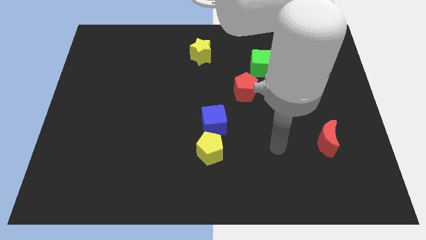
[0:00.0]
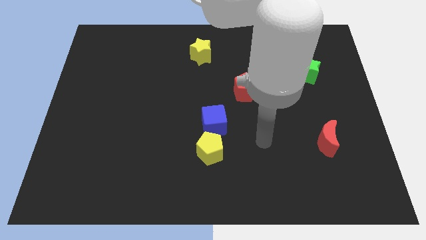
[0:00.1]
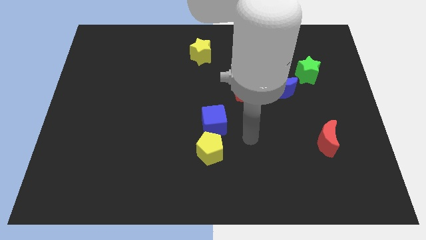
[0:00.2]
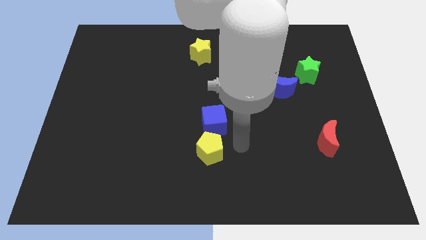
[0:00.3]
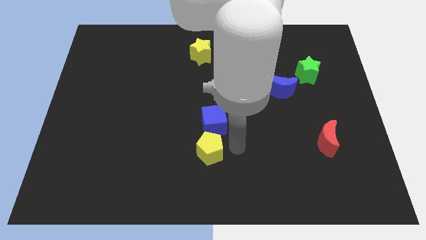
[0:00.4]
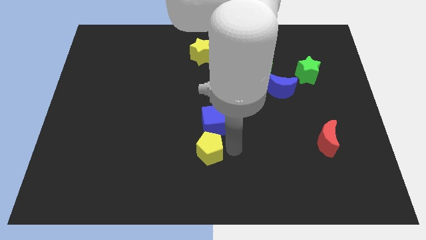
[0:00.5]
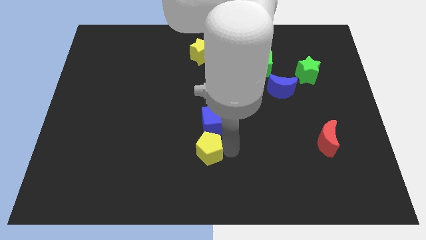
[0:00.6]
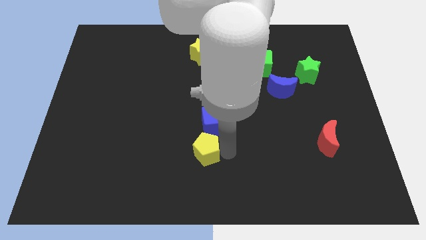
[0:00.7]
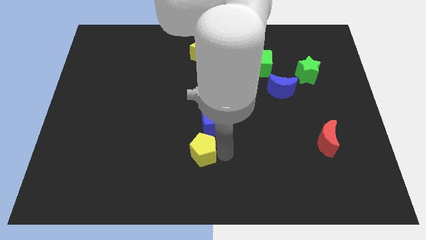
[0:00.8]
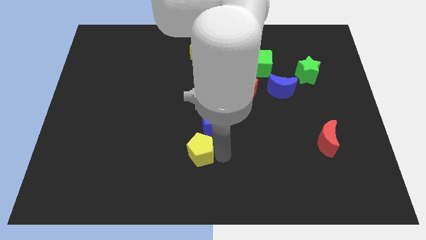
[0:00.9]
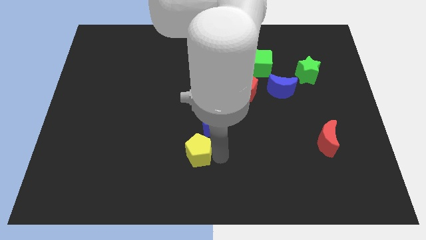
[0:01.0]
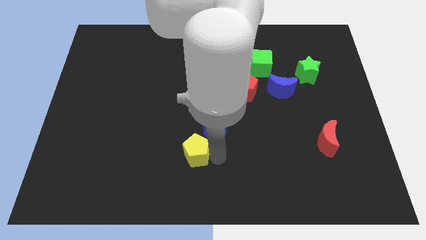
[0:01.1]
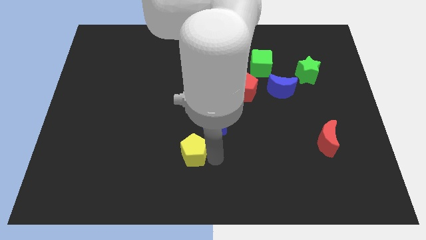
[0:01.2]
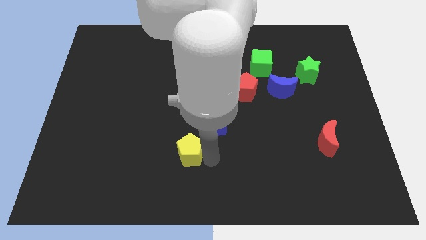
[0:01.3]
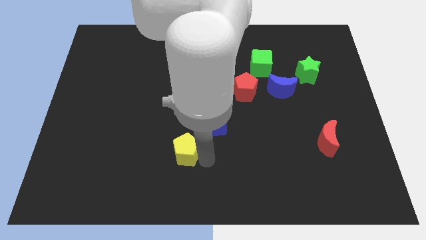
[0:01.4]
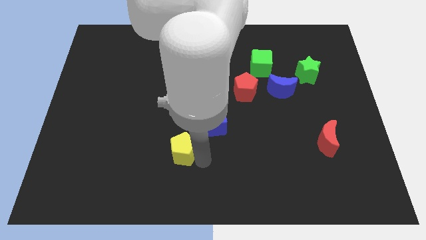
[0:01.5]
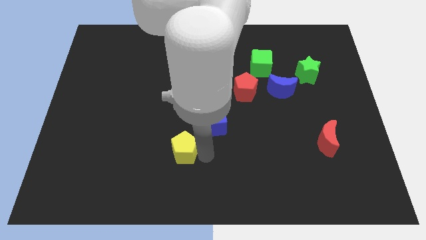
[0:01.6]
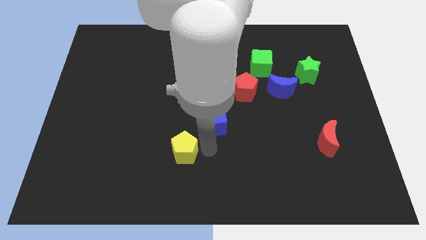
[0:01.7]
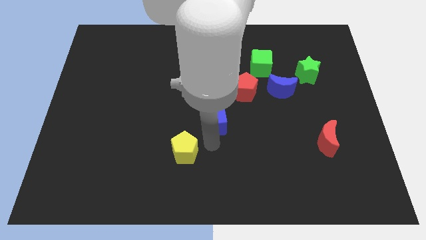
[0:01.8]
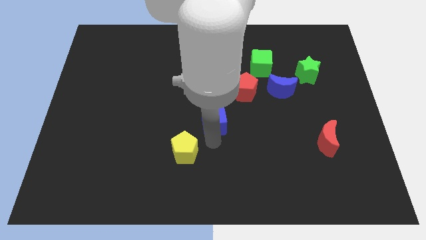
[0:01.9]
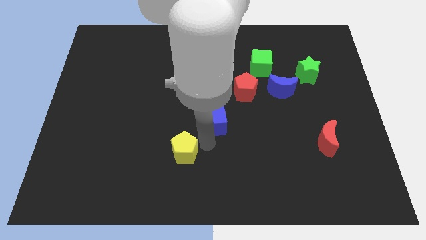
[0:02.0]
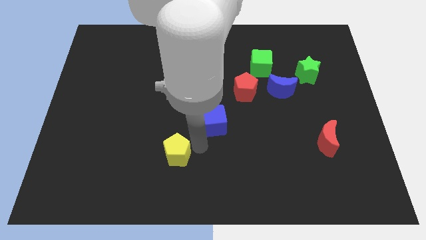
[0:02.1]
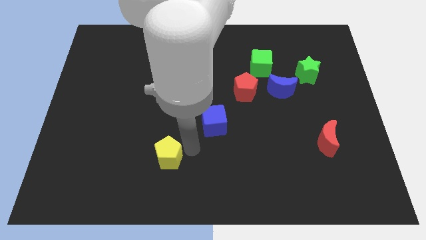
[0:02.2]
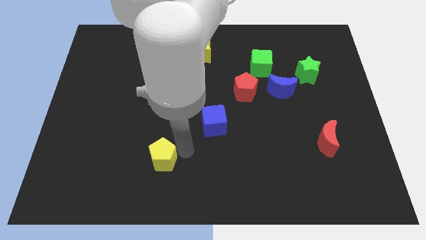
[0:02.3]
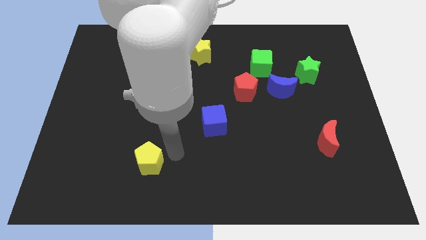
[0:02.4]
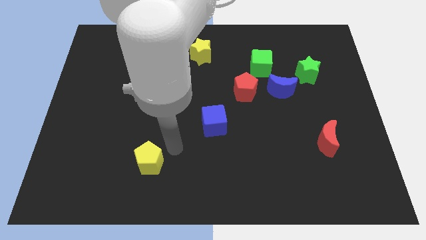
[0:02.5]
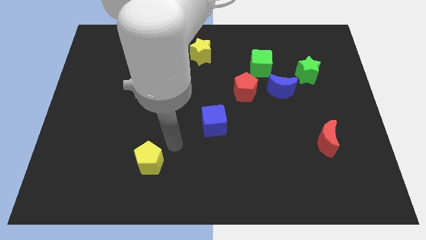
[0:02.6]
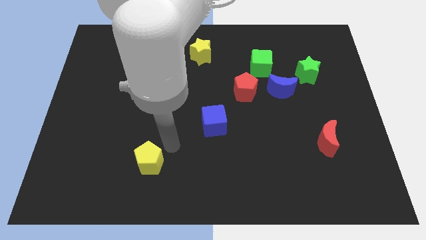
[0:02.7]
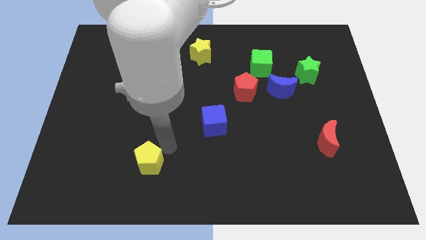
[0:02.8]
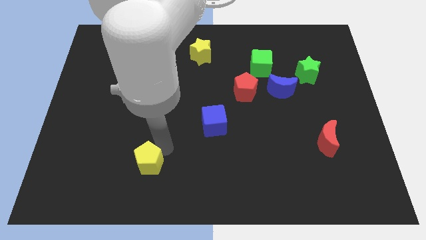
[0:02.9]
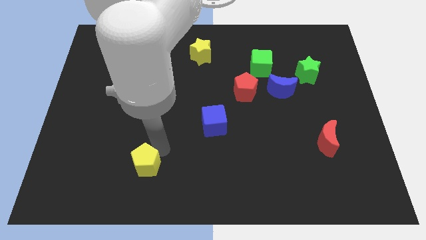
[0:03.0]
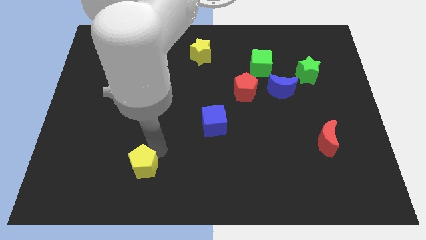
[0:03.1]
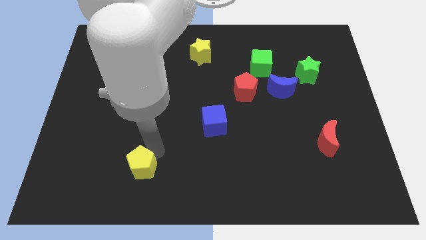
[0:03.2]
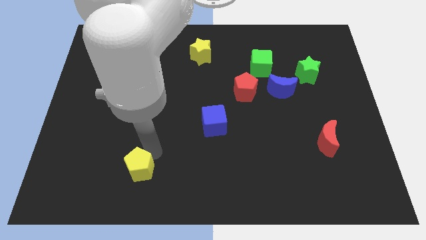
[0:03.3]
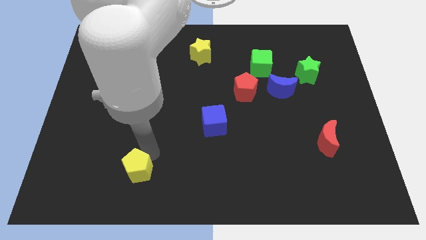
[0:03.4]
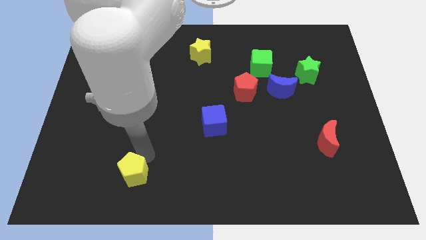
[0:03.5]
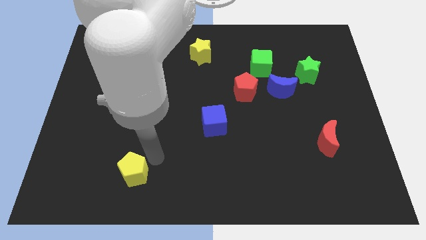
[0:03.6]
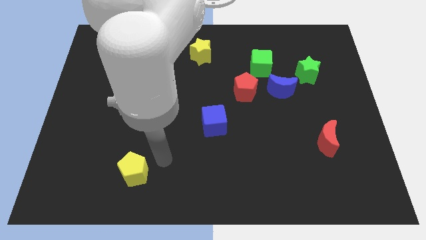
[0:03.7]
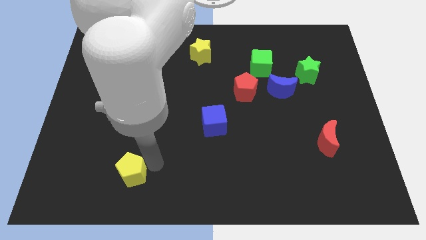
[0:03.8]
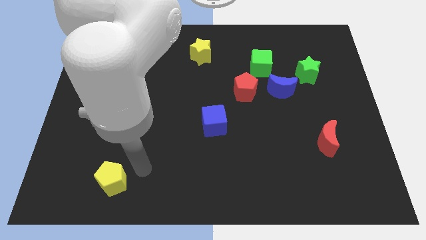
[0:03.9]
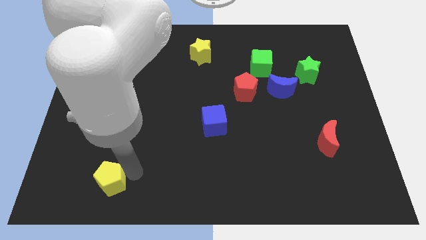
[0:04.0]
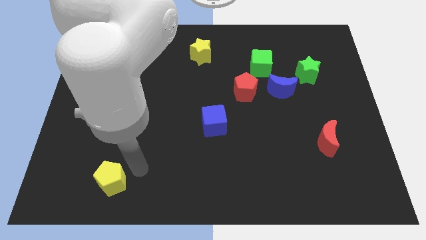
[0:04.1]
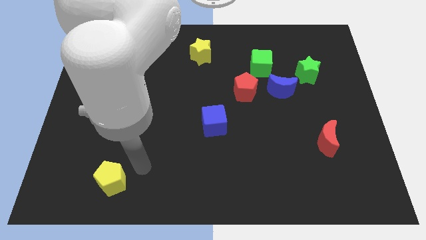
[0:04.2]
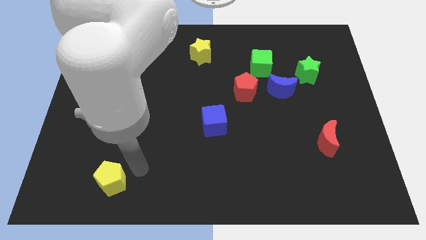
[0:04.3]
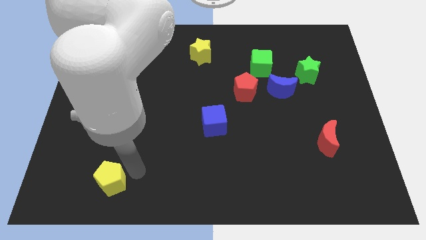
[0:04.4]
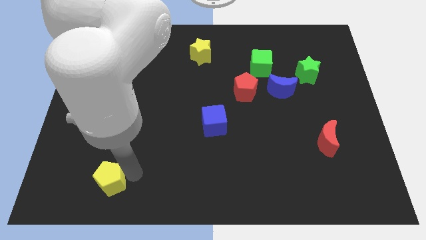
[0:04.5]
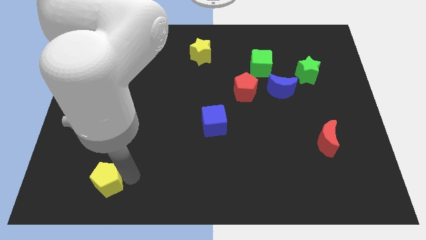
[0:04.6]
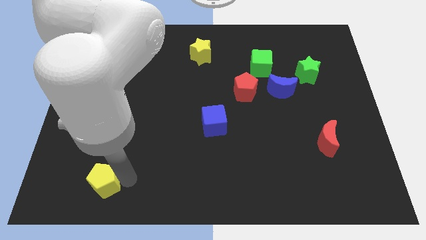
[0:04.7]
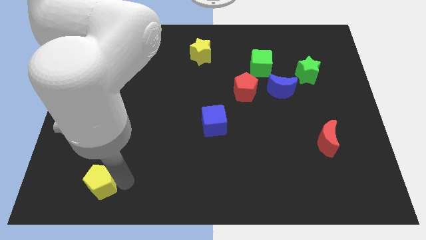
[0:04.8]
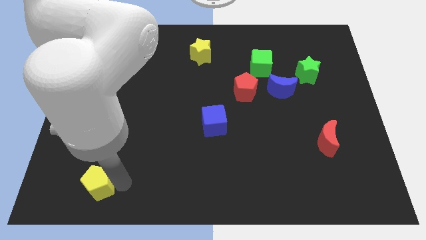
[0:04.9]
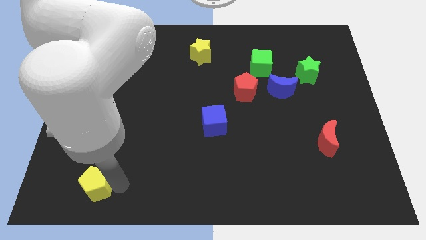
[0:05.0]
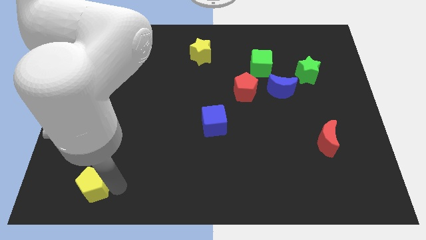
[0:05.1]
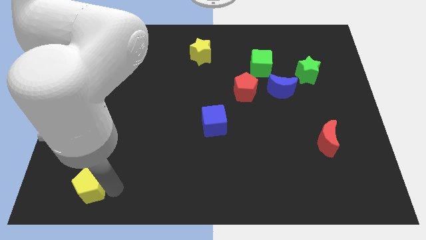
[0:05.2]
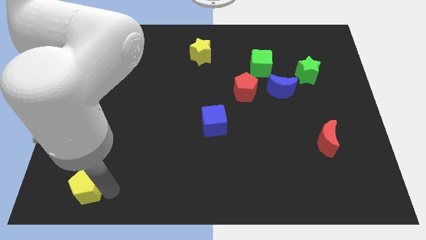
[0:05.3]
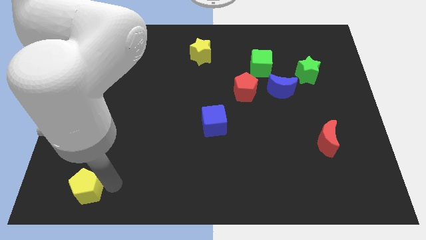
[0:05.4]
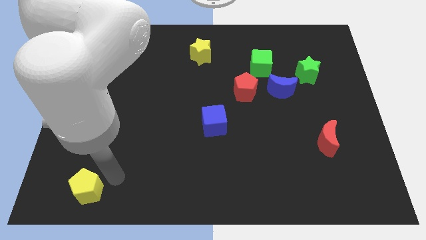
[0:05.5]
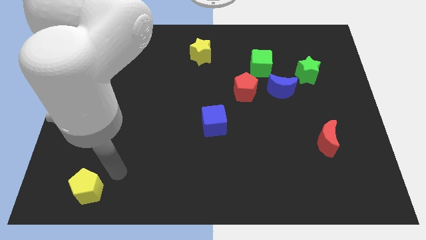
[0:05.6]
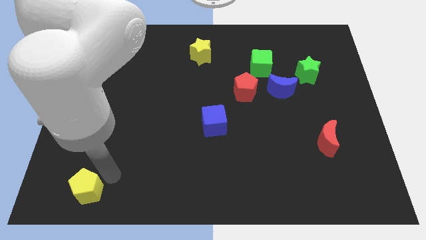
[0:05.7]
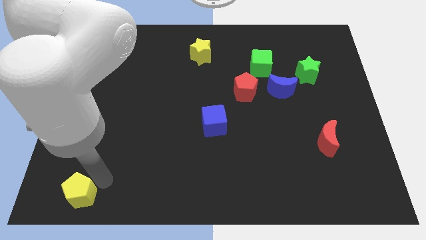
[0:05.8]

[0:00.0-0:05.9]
put the yellow pentagon to the bottom left of the board

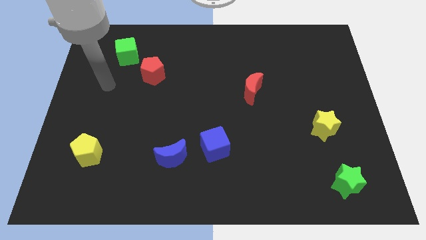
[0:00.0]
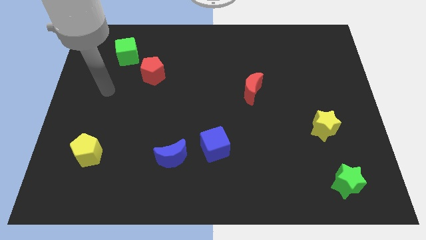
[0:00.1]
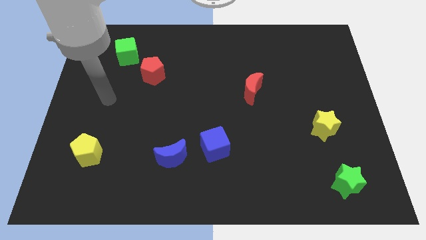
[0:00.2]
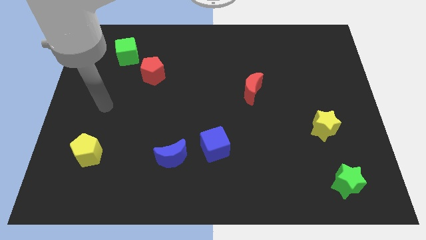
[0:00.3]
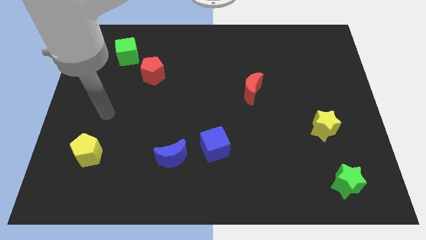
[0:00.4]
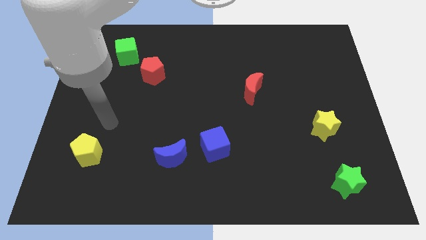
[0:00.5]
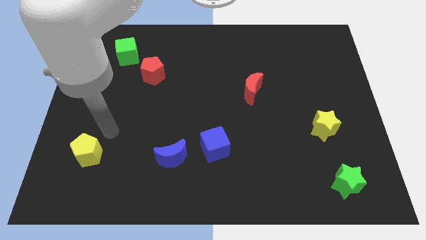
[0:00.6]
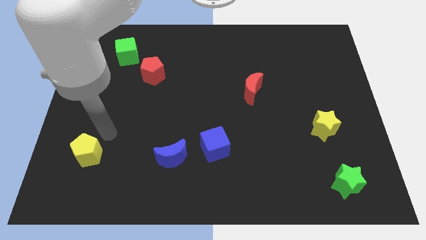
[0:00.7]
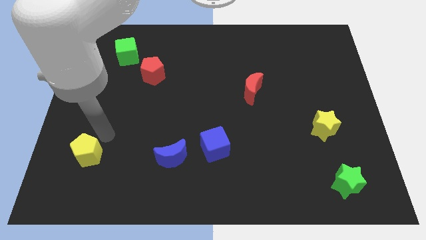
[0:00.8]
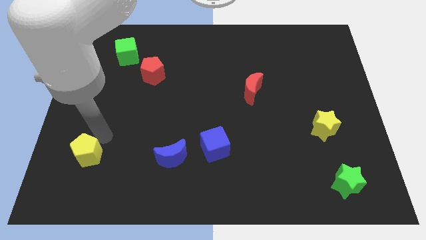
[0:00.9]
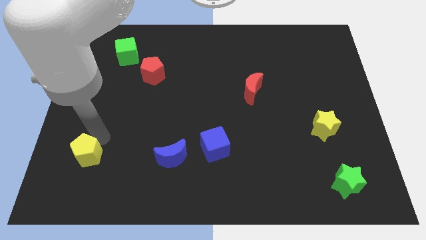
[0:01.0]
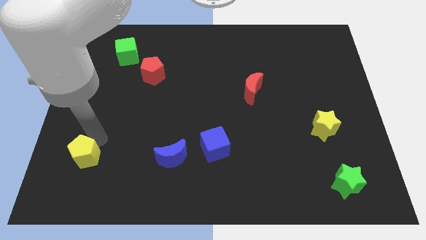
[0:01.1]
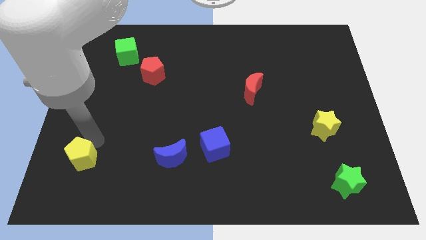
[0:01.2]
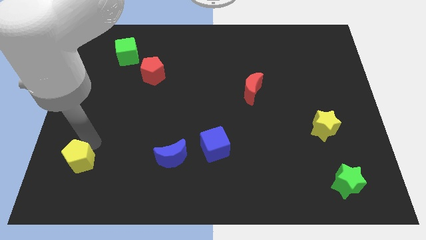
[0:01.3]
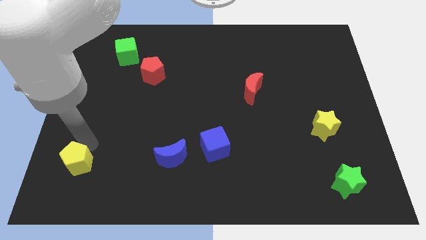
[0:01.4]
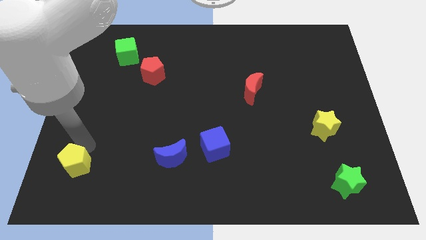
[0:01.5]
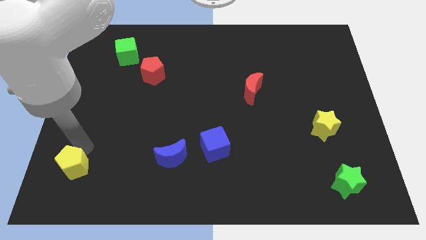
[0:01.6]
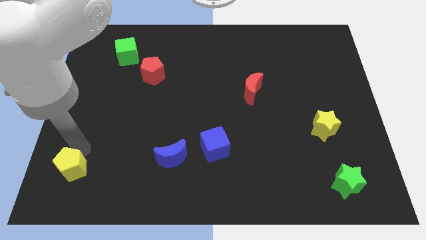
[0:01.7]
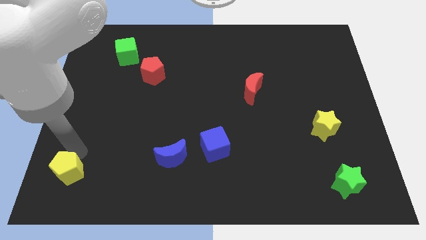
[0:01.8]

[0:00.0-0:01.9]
slide the yellow pentagon to the lower left corner
